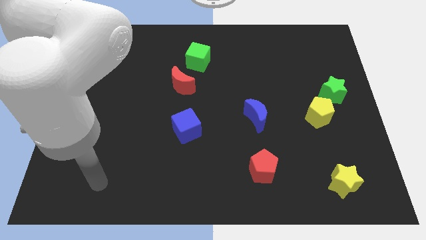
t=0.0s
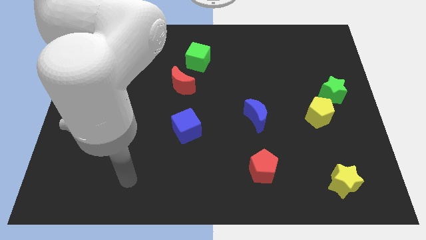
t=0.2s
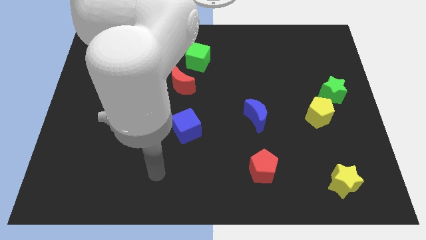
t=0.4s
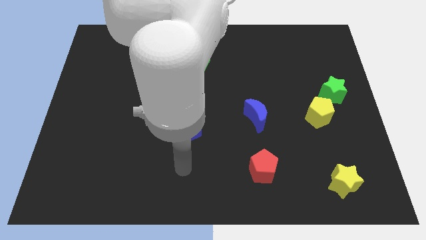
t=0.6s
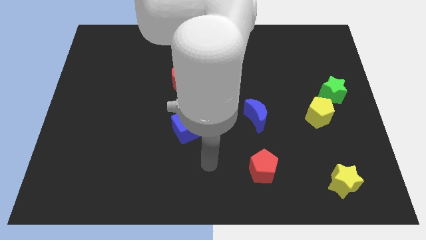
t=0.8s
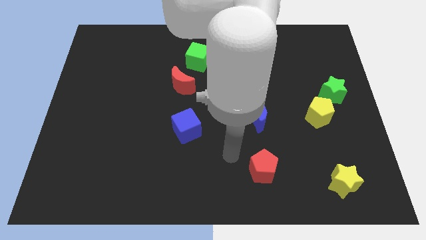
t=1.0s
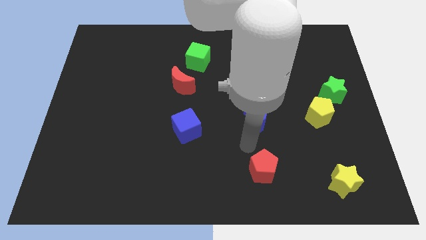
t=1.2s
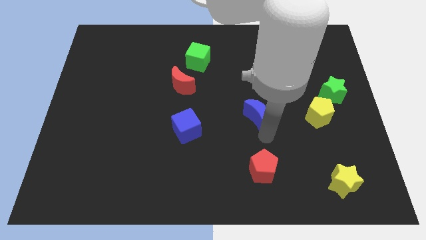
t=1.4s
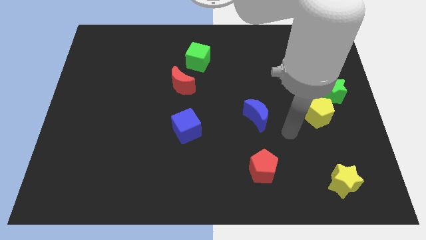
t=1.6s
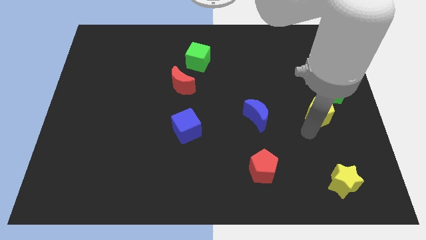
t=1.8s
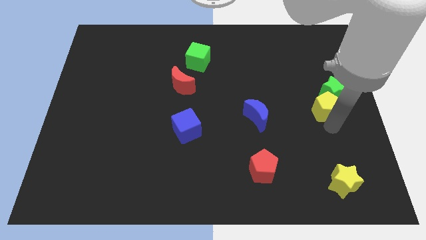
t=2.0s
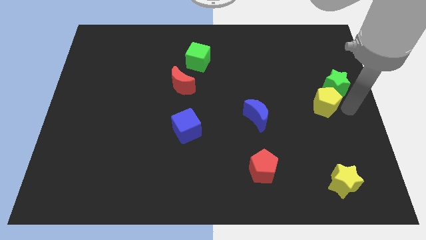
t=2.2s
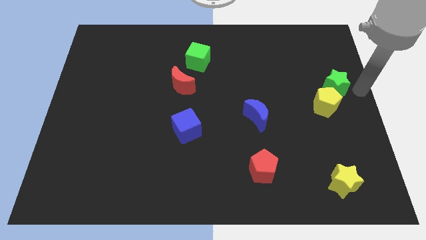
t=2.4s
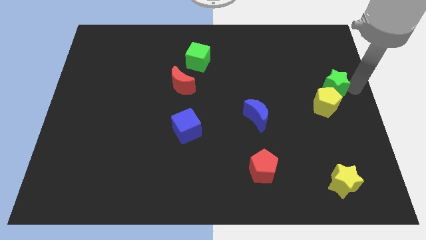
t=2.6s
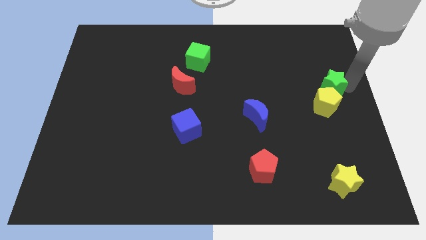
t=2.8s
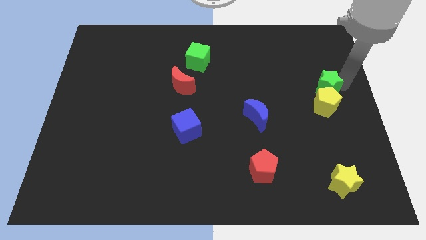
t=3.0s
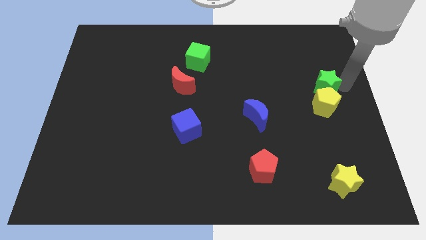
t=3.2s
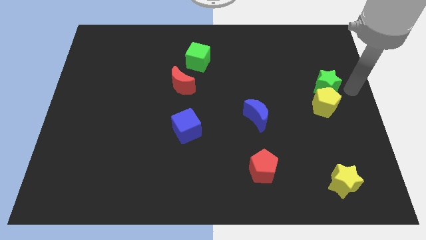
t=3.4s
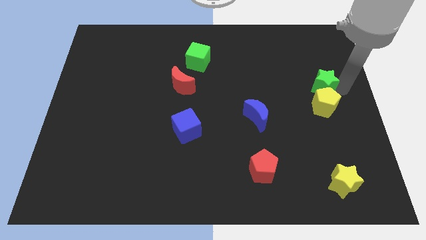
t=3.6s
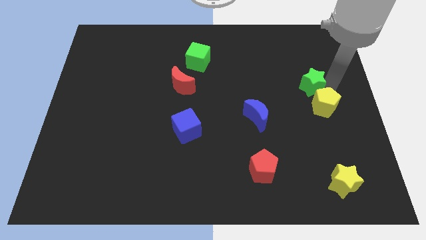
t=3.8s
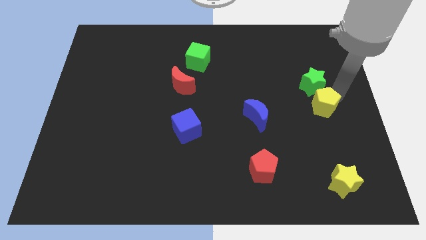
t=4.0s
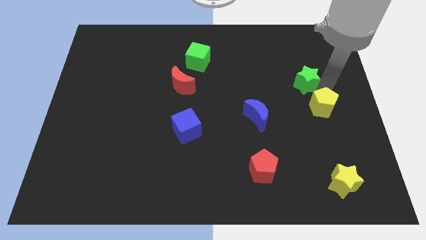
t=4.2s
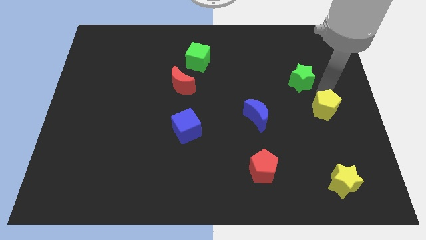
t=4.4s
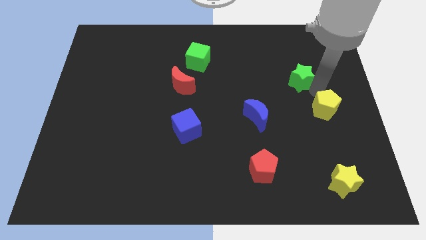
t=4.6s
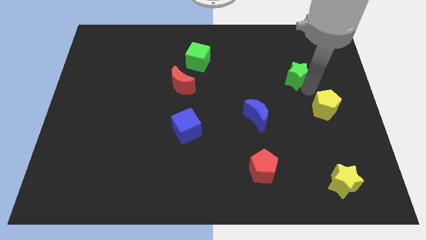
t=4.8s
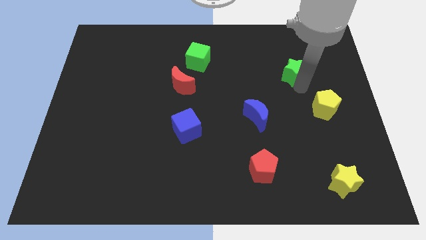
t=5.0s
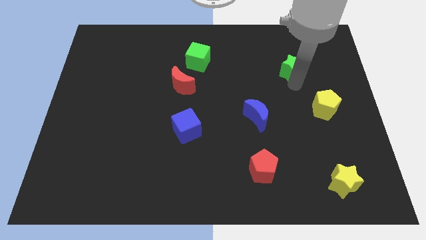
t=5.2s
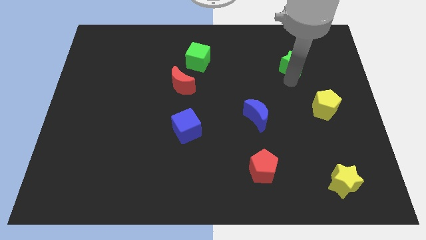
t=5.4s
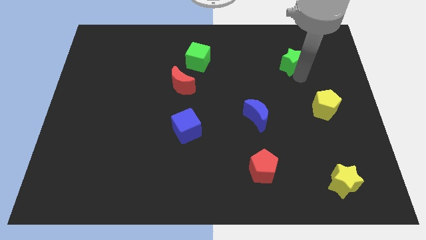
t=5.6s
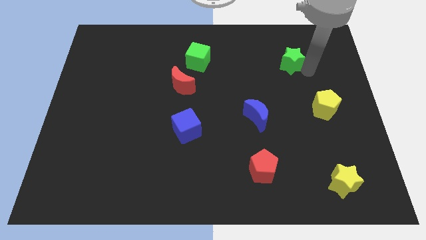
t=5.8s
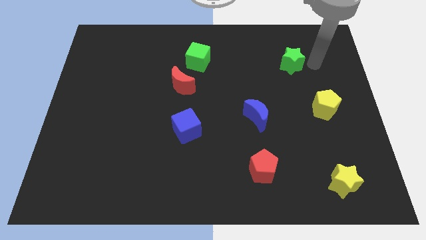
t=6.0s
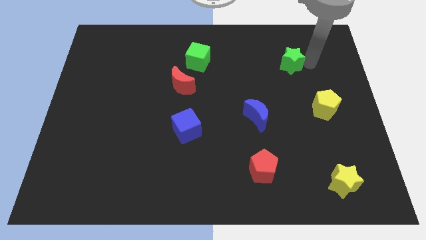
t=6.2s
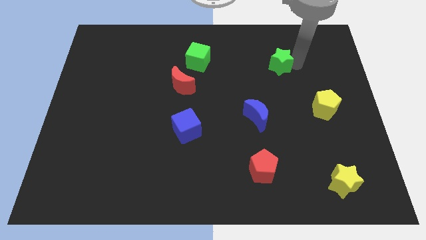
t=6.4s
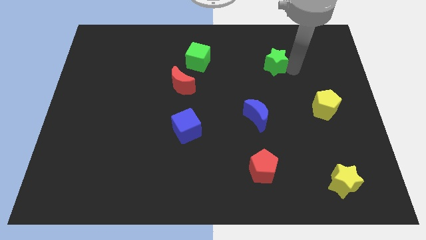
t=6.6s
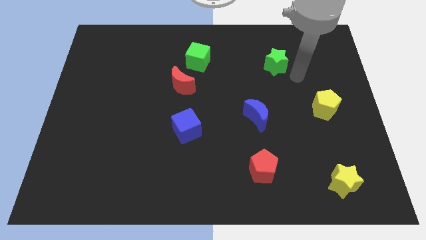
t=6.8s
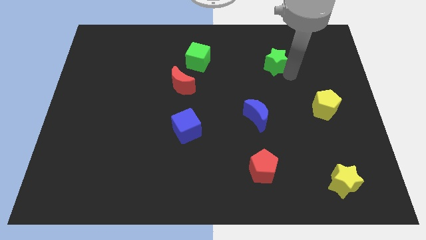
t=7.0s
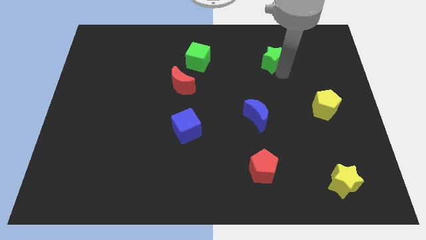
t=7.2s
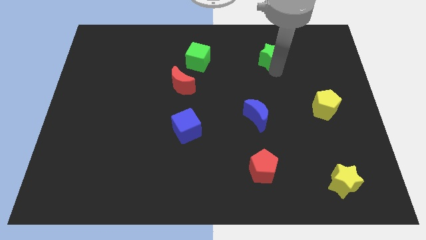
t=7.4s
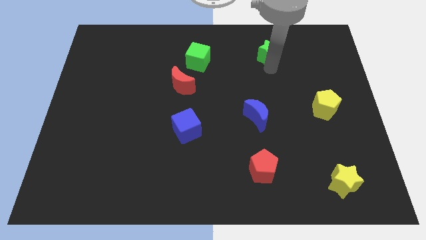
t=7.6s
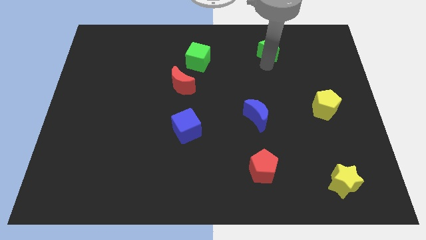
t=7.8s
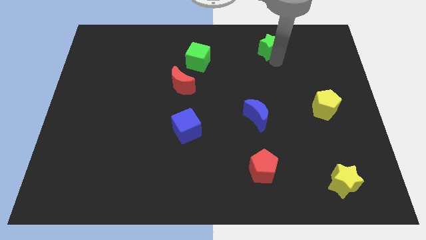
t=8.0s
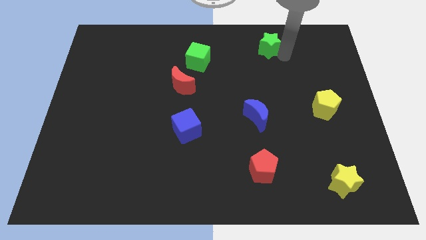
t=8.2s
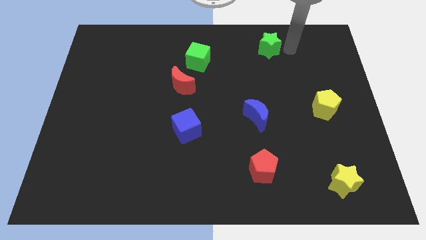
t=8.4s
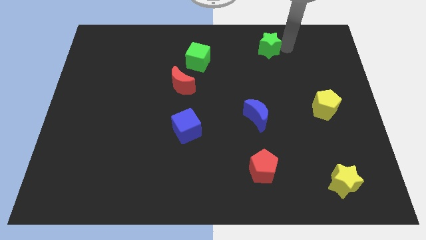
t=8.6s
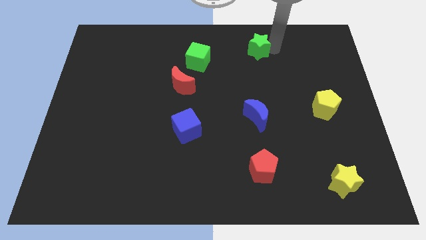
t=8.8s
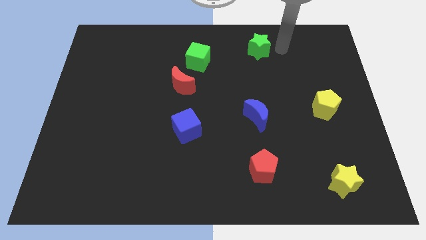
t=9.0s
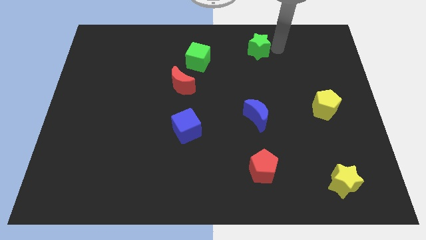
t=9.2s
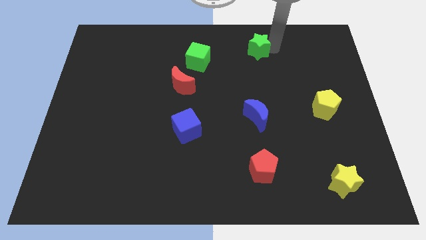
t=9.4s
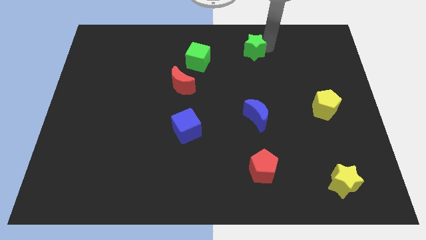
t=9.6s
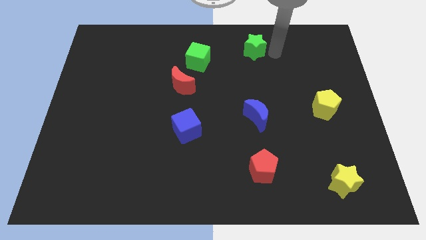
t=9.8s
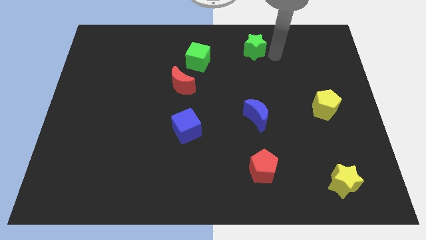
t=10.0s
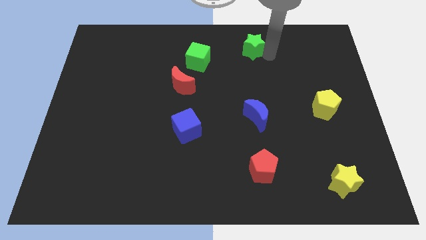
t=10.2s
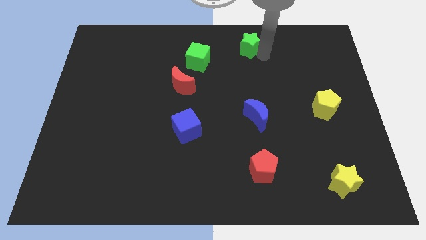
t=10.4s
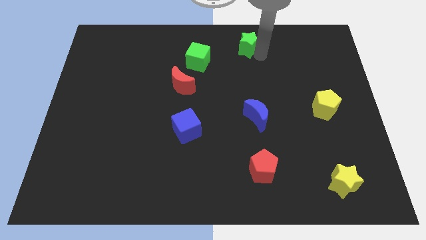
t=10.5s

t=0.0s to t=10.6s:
slide the green star to the top

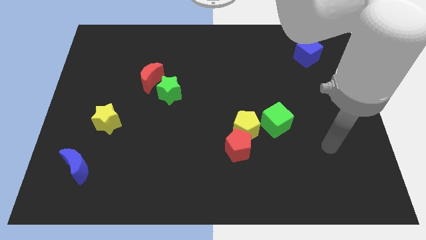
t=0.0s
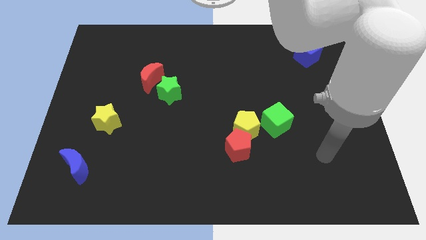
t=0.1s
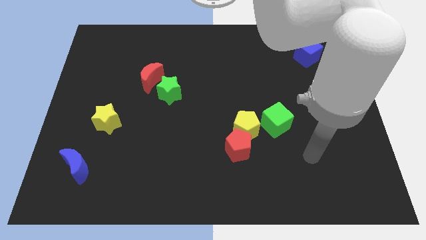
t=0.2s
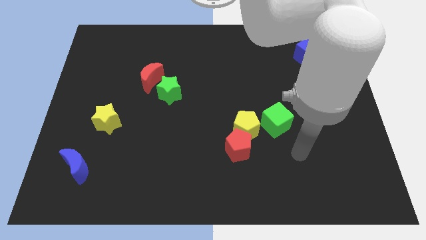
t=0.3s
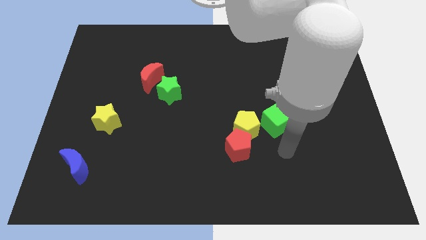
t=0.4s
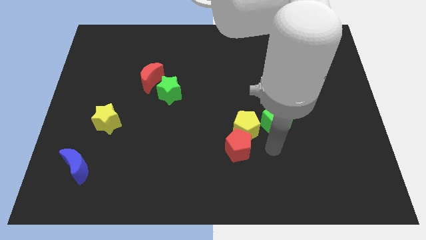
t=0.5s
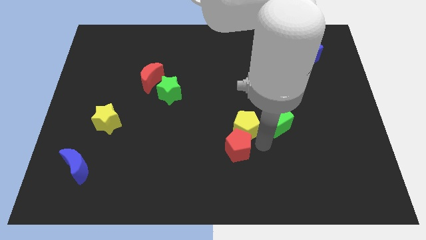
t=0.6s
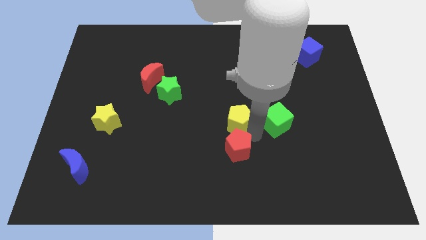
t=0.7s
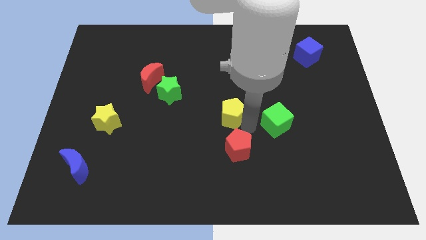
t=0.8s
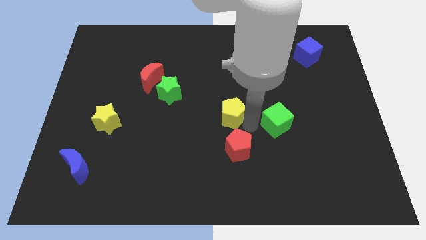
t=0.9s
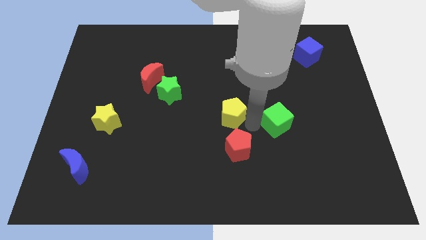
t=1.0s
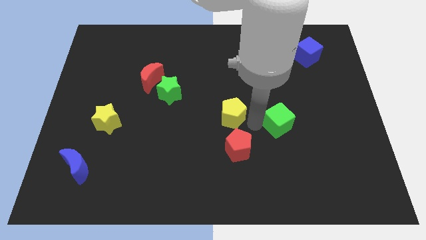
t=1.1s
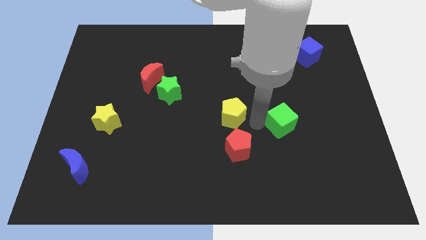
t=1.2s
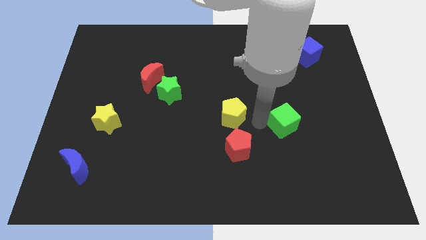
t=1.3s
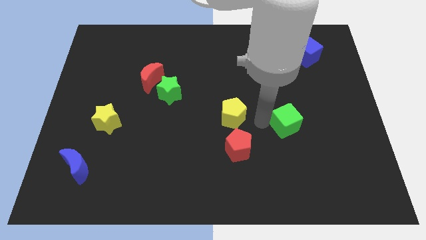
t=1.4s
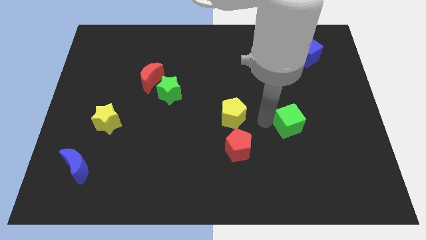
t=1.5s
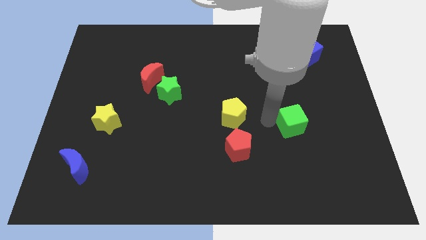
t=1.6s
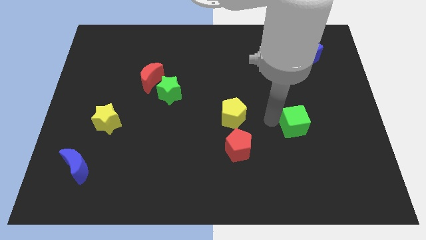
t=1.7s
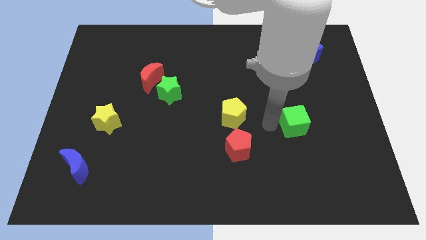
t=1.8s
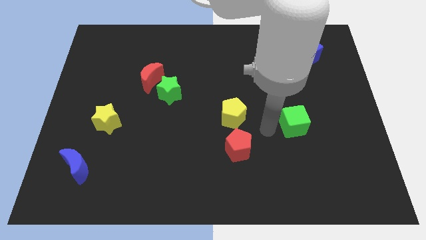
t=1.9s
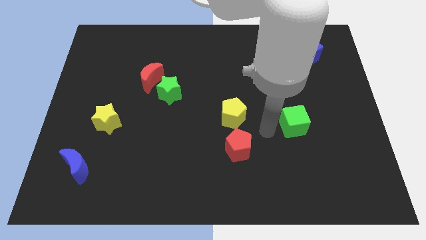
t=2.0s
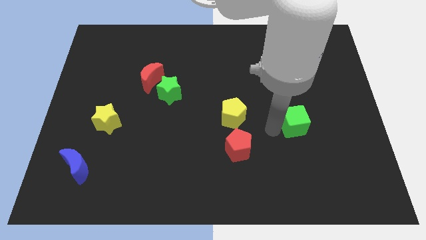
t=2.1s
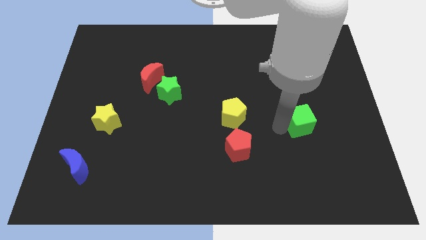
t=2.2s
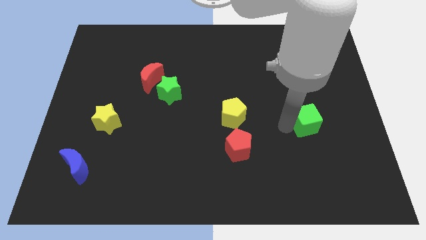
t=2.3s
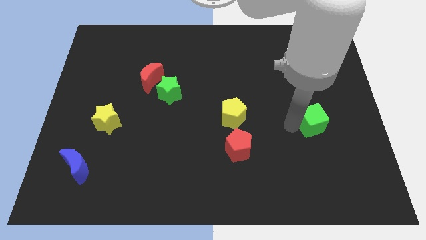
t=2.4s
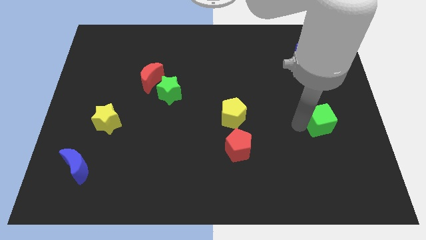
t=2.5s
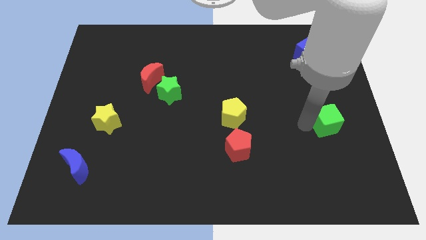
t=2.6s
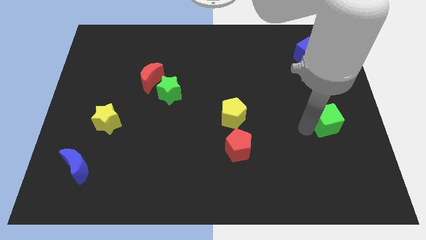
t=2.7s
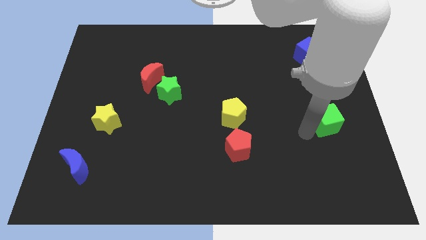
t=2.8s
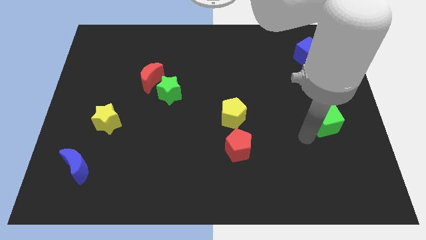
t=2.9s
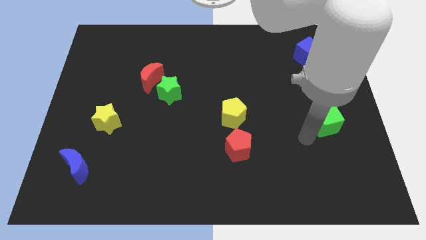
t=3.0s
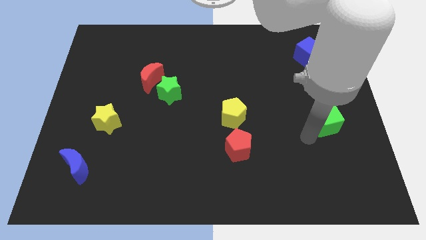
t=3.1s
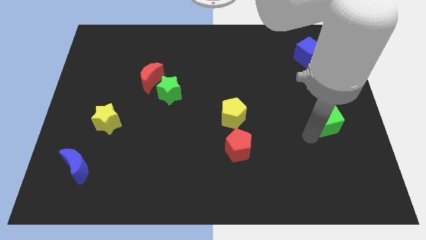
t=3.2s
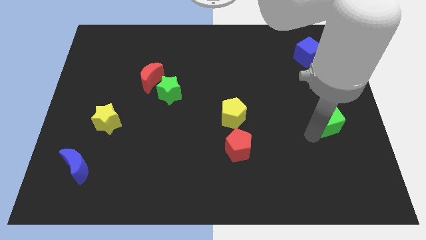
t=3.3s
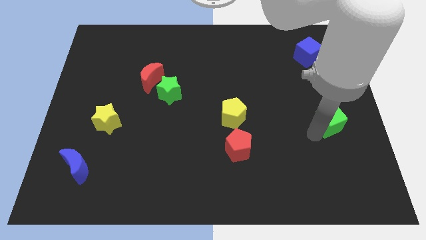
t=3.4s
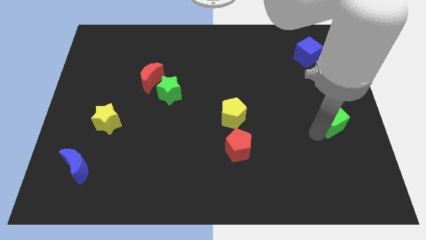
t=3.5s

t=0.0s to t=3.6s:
push the green cube to the center right
